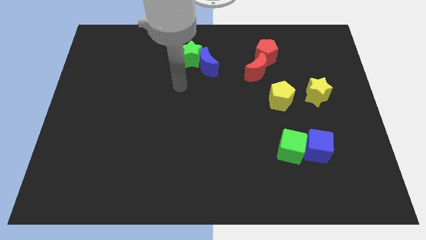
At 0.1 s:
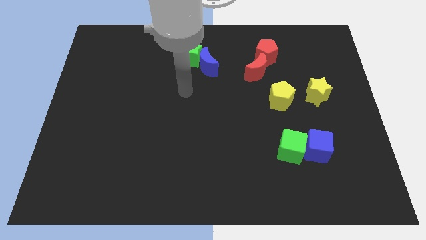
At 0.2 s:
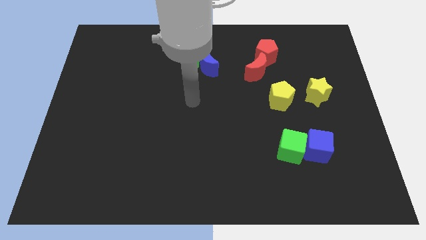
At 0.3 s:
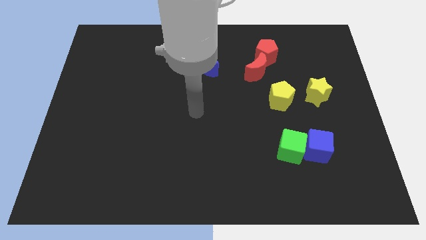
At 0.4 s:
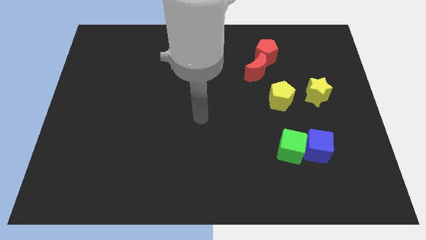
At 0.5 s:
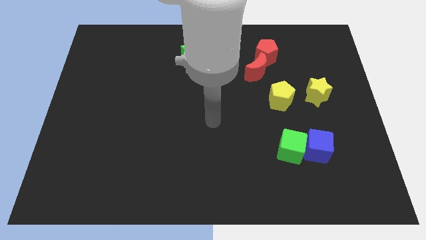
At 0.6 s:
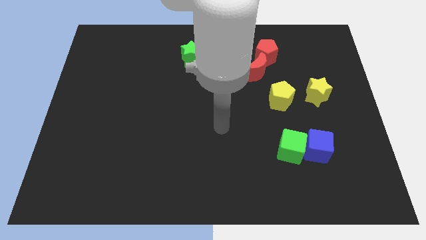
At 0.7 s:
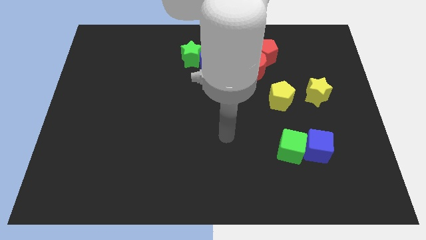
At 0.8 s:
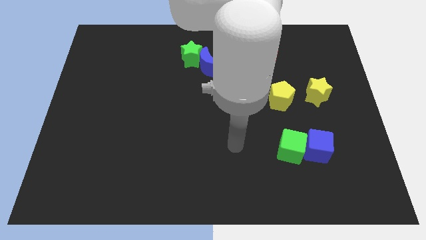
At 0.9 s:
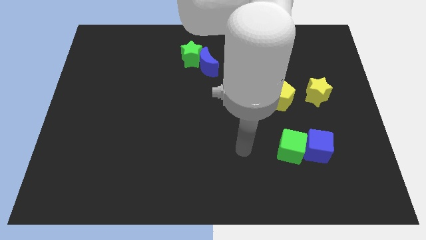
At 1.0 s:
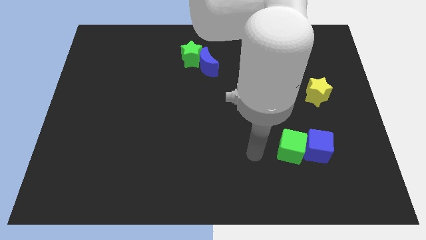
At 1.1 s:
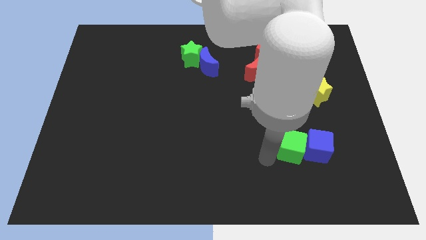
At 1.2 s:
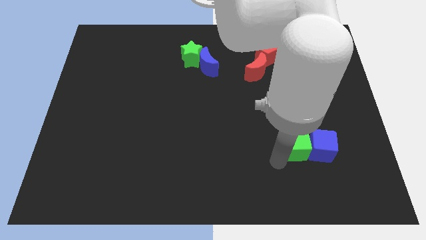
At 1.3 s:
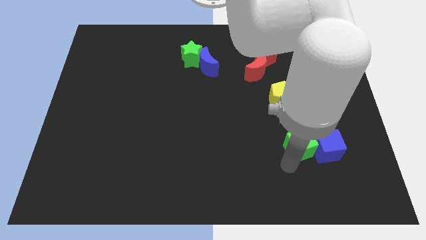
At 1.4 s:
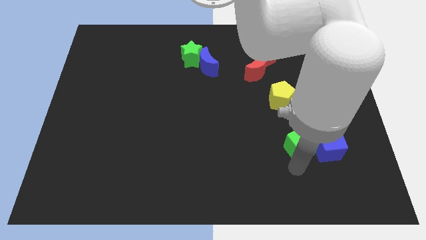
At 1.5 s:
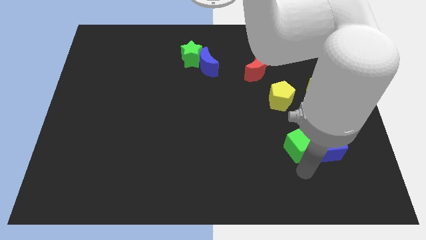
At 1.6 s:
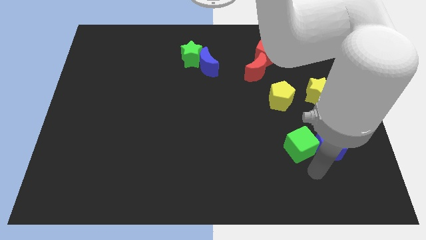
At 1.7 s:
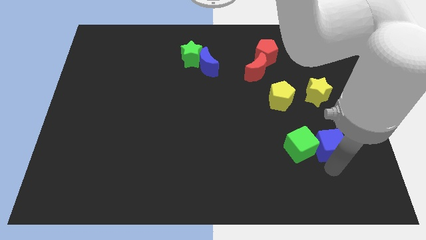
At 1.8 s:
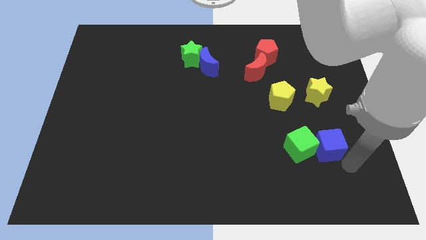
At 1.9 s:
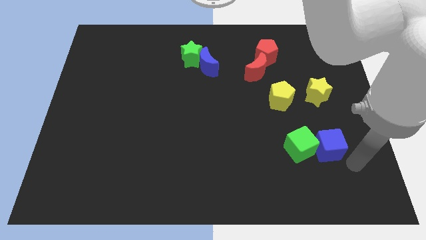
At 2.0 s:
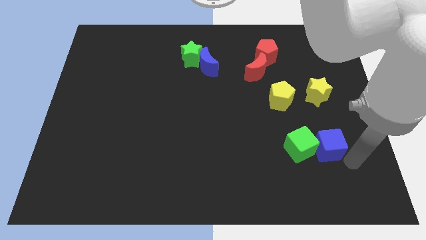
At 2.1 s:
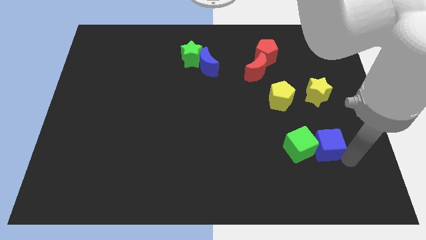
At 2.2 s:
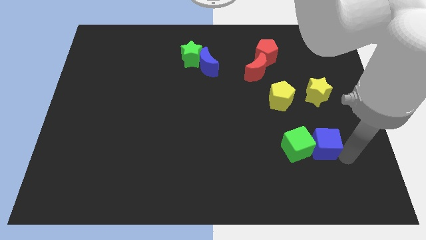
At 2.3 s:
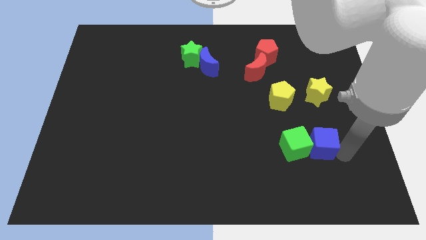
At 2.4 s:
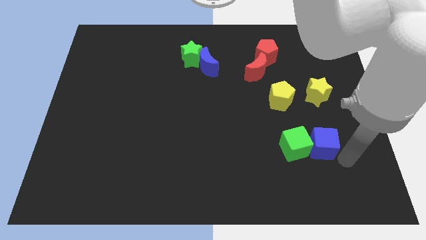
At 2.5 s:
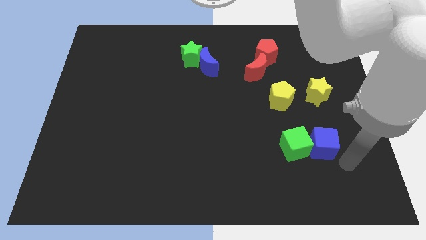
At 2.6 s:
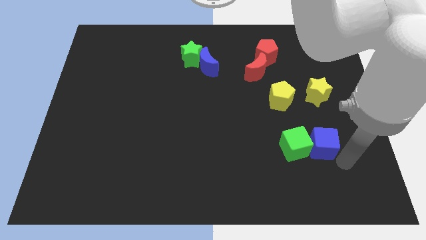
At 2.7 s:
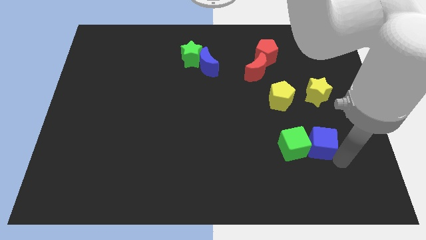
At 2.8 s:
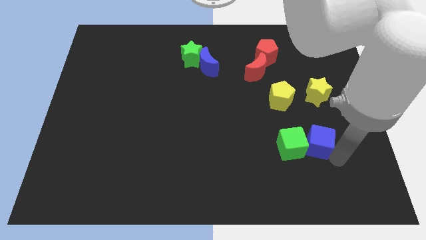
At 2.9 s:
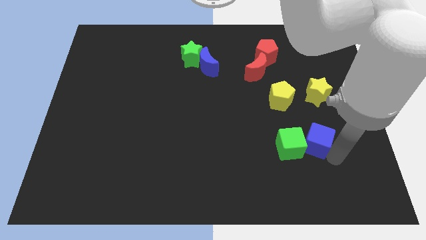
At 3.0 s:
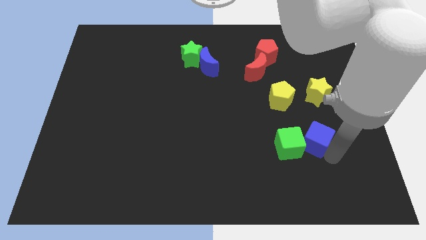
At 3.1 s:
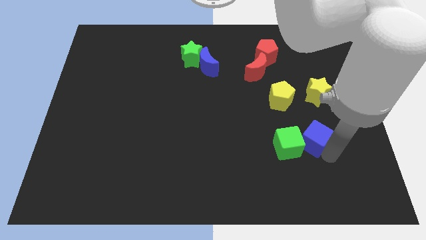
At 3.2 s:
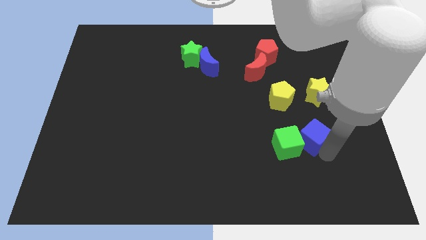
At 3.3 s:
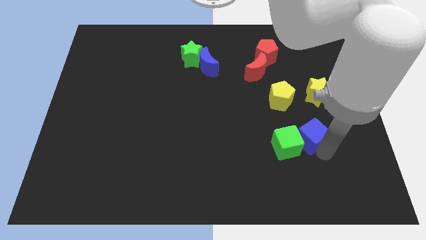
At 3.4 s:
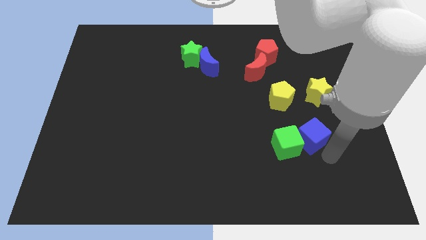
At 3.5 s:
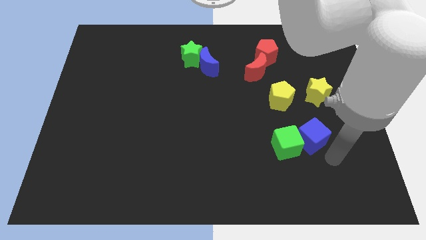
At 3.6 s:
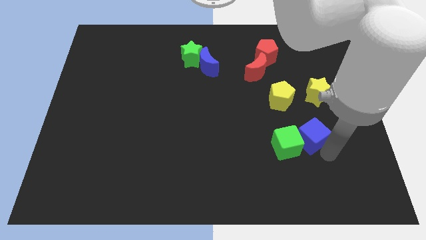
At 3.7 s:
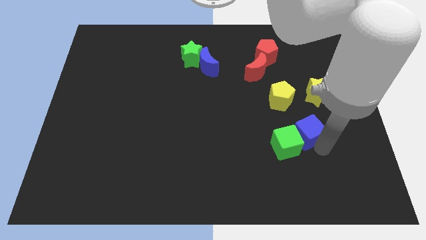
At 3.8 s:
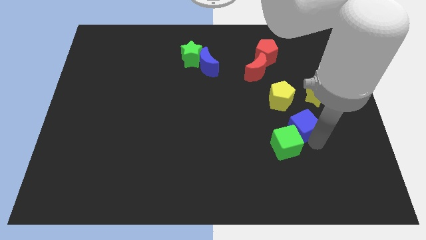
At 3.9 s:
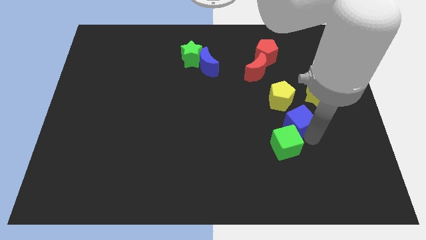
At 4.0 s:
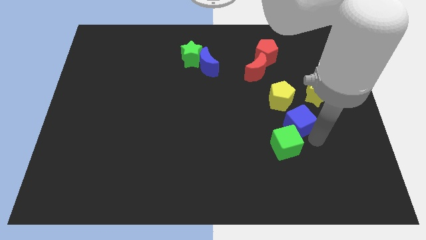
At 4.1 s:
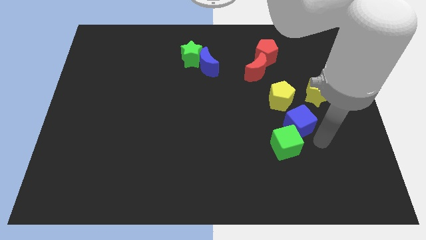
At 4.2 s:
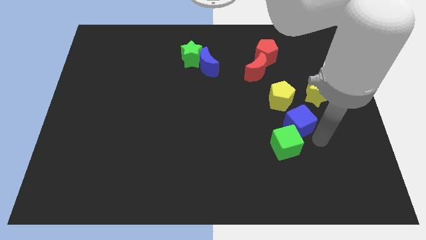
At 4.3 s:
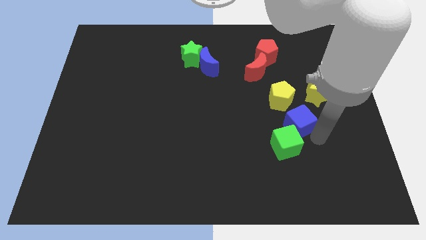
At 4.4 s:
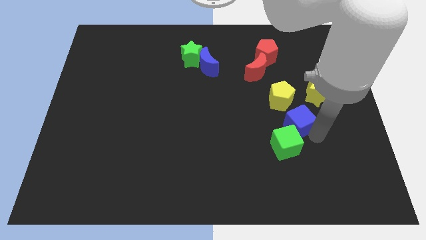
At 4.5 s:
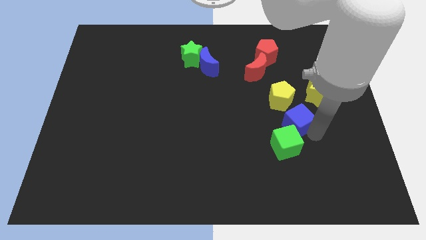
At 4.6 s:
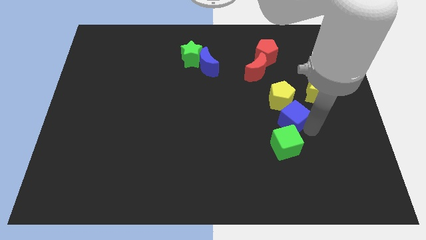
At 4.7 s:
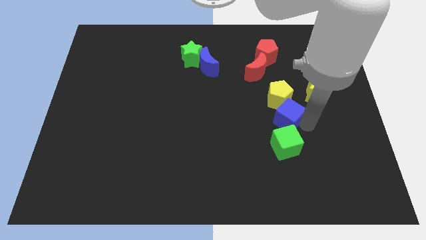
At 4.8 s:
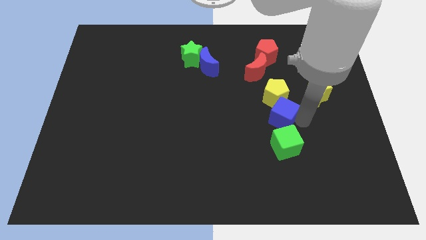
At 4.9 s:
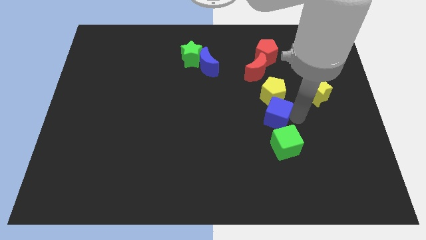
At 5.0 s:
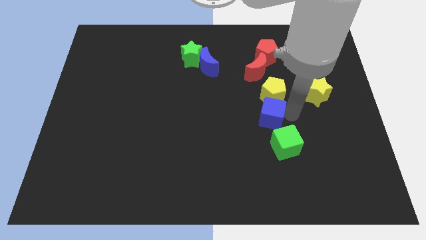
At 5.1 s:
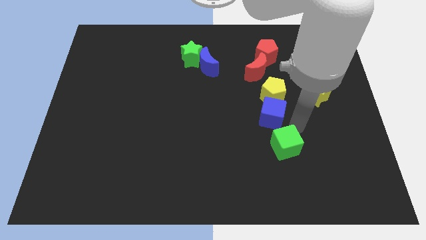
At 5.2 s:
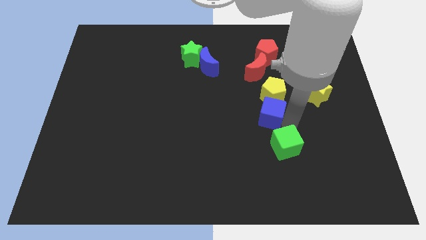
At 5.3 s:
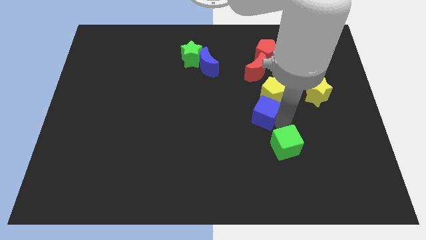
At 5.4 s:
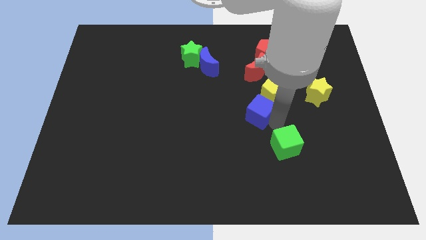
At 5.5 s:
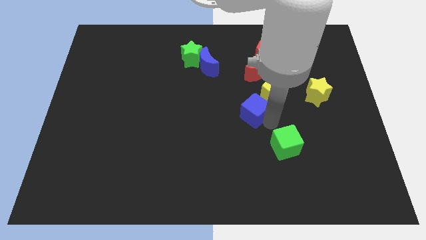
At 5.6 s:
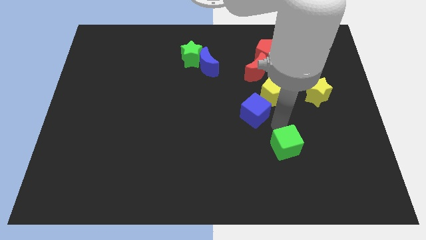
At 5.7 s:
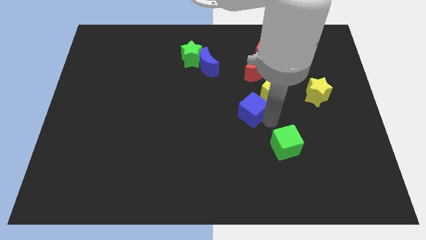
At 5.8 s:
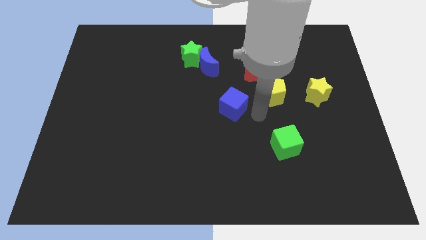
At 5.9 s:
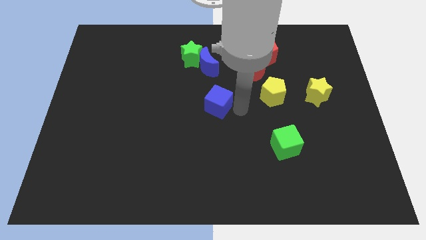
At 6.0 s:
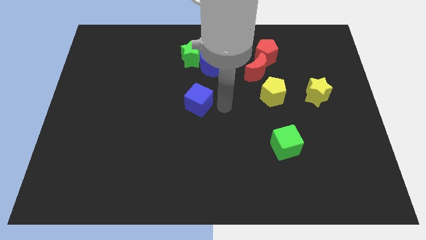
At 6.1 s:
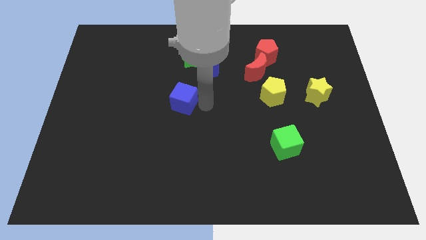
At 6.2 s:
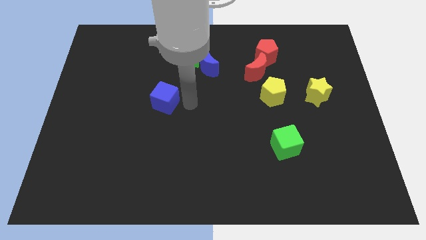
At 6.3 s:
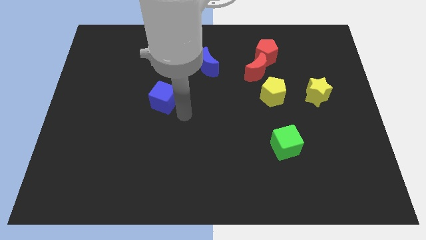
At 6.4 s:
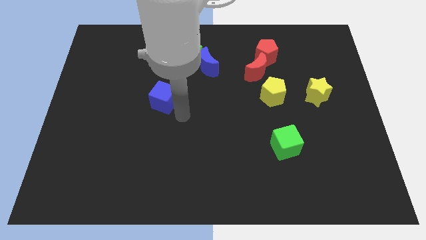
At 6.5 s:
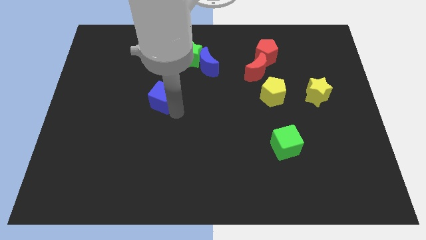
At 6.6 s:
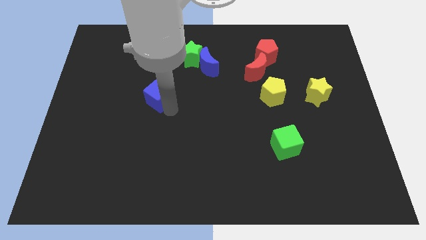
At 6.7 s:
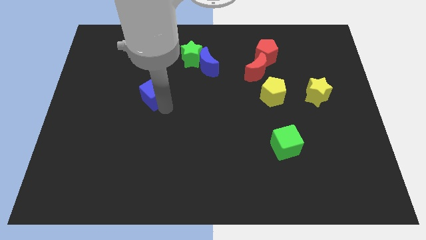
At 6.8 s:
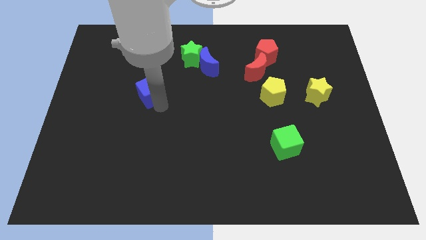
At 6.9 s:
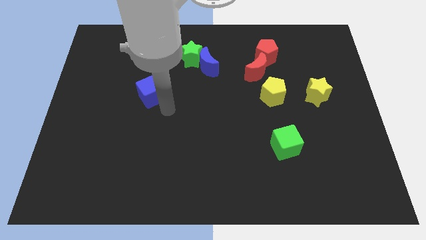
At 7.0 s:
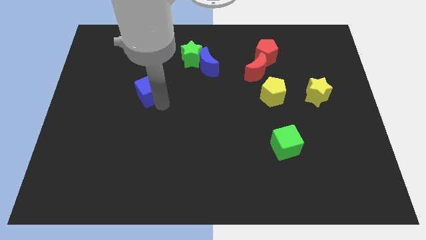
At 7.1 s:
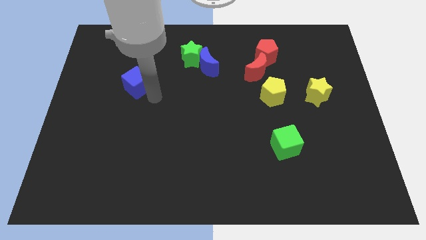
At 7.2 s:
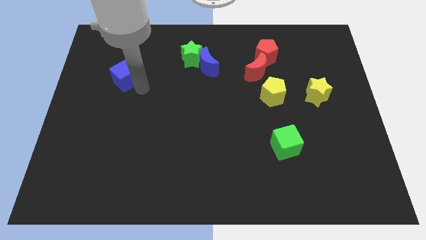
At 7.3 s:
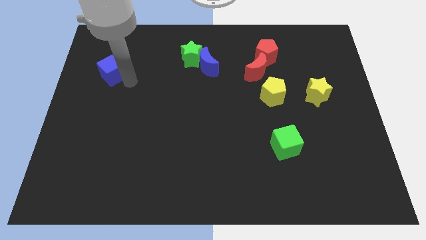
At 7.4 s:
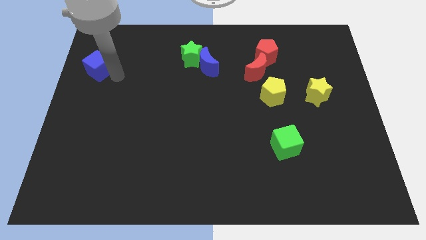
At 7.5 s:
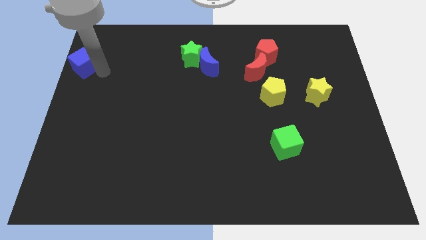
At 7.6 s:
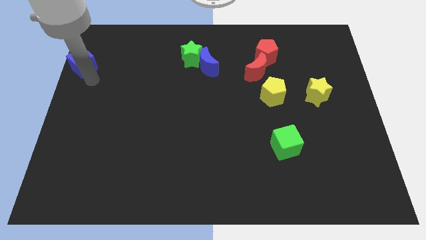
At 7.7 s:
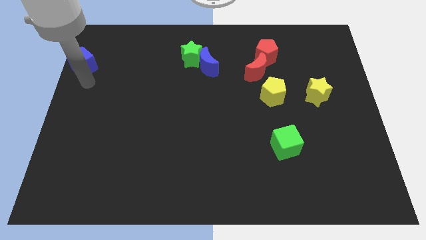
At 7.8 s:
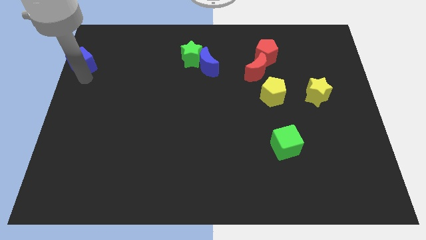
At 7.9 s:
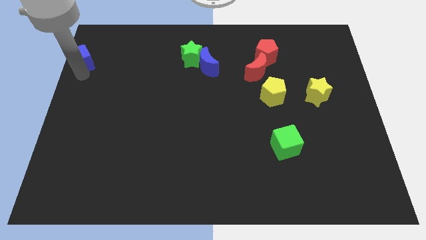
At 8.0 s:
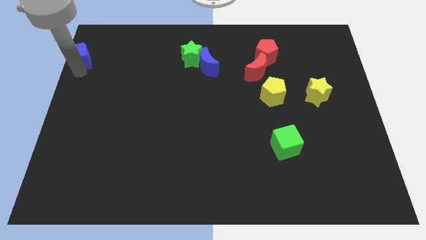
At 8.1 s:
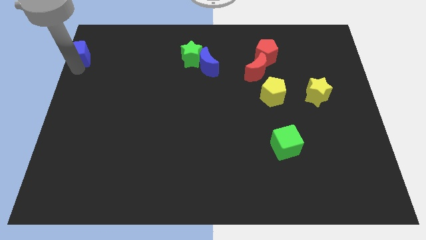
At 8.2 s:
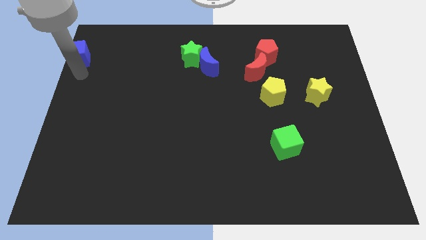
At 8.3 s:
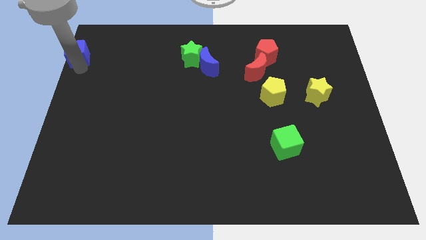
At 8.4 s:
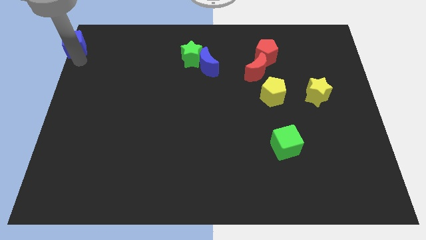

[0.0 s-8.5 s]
move the blue cube to the upper left corner
